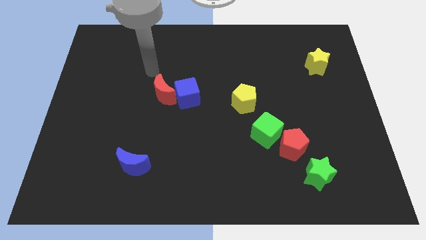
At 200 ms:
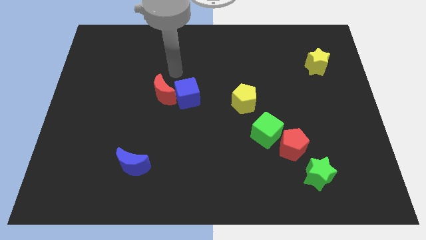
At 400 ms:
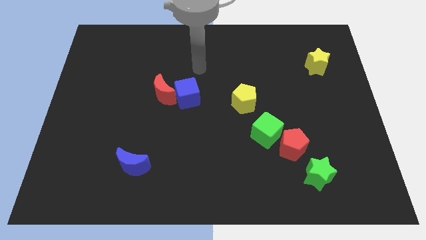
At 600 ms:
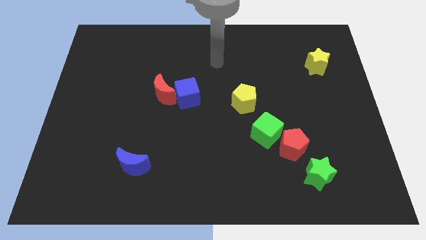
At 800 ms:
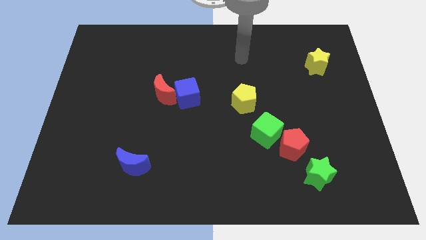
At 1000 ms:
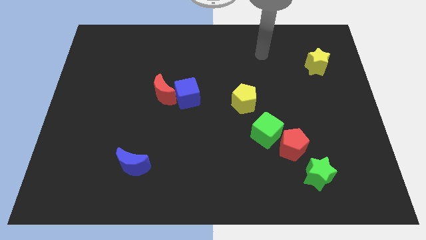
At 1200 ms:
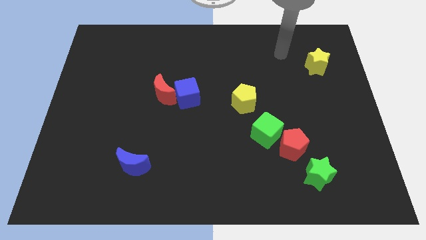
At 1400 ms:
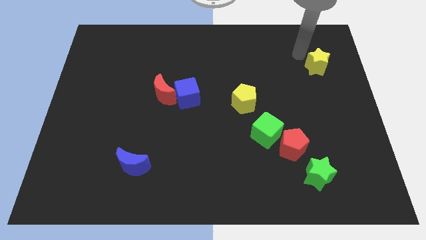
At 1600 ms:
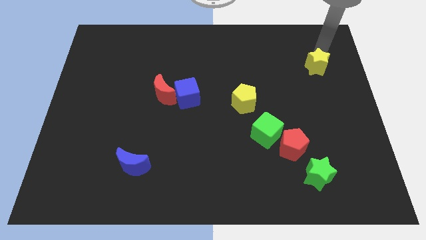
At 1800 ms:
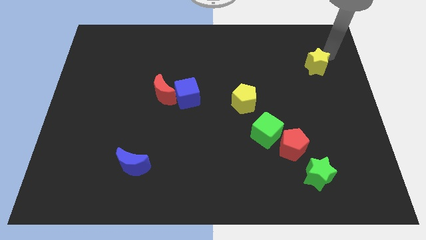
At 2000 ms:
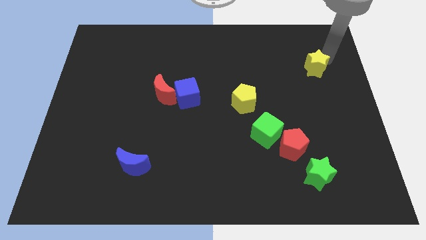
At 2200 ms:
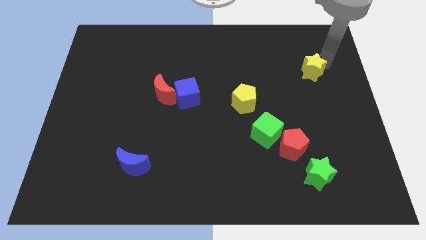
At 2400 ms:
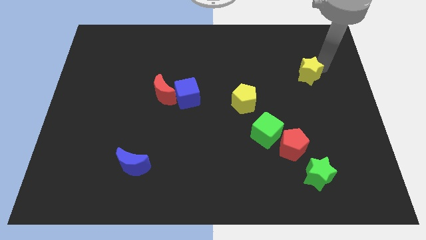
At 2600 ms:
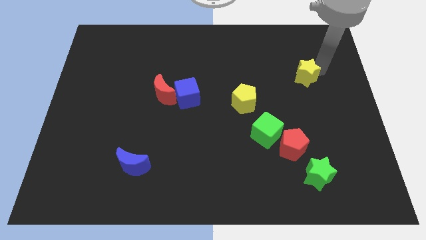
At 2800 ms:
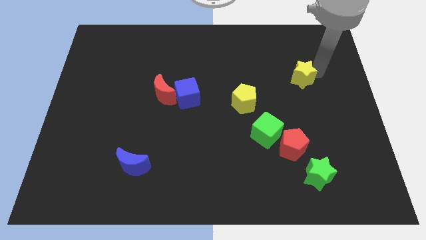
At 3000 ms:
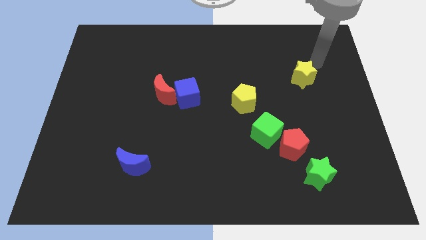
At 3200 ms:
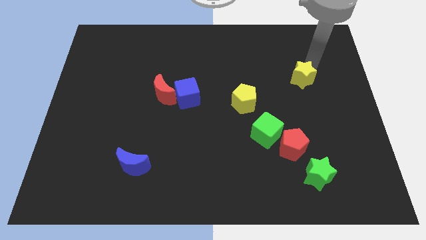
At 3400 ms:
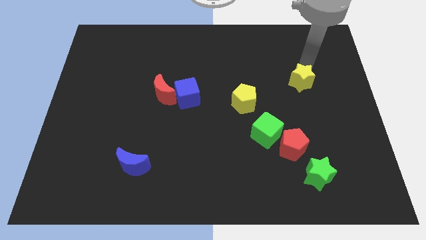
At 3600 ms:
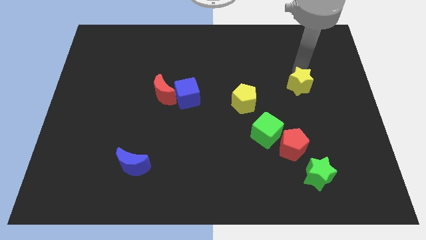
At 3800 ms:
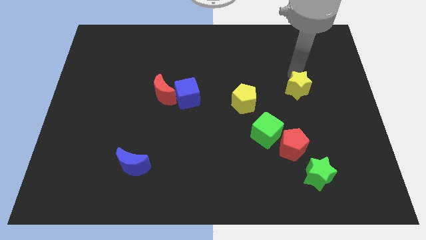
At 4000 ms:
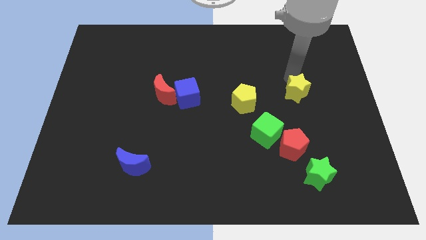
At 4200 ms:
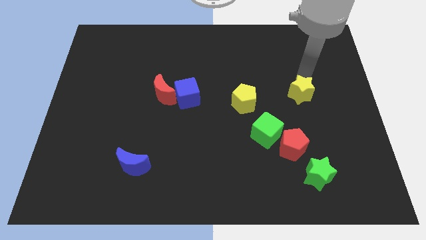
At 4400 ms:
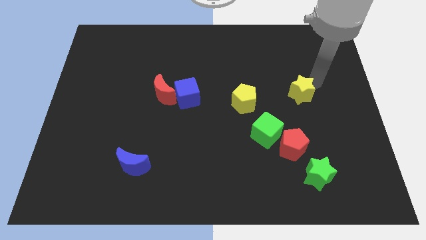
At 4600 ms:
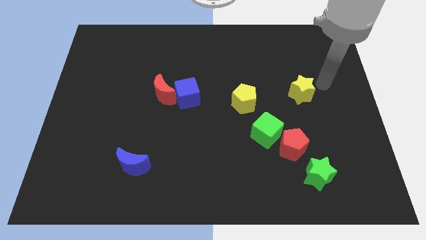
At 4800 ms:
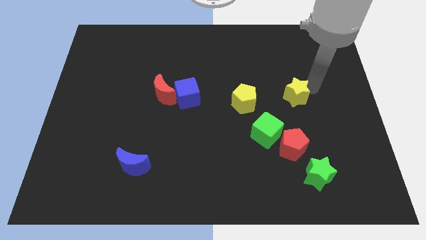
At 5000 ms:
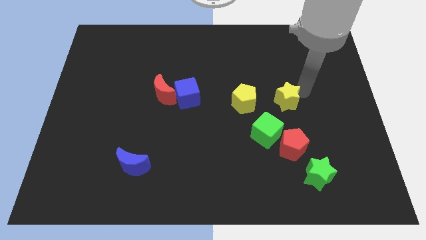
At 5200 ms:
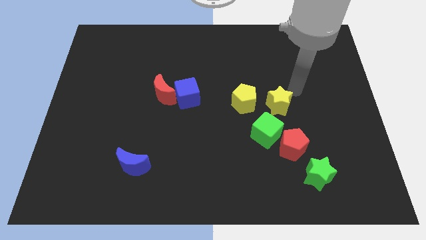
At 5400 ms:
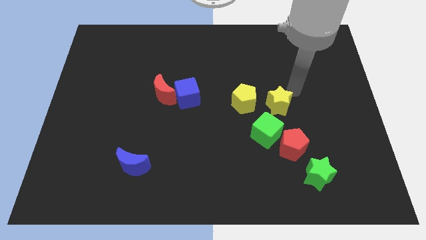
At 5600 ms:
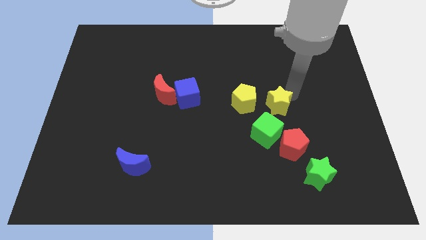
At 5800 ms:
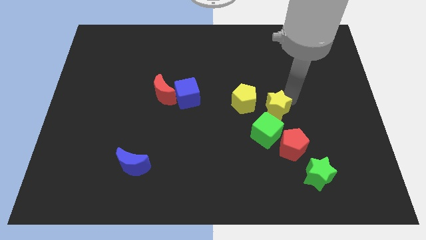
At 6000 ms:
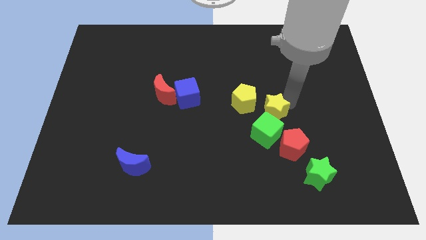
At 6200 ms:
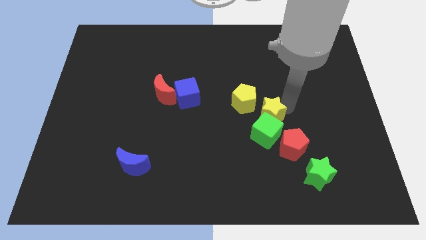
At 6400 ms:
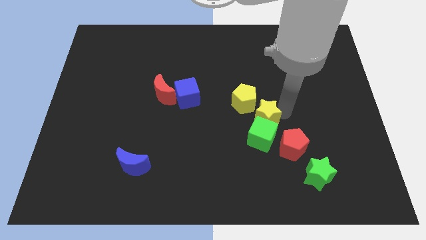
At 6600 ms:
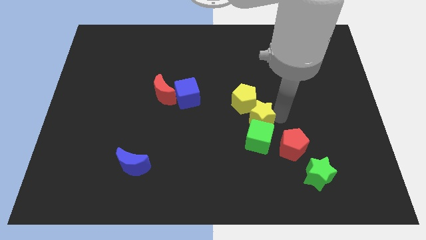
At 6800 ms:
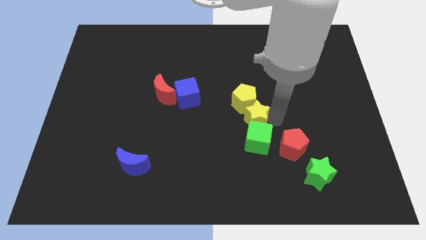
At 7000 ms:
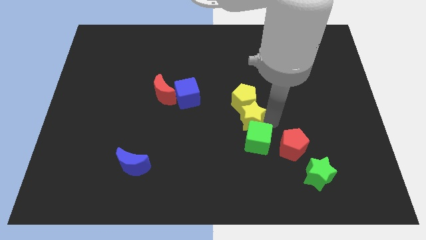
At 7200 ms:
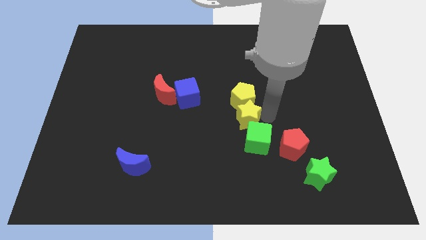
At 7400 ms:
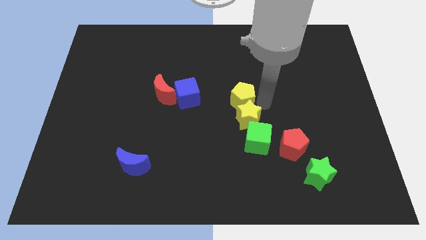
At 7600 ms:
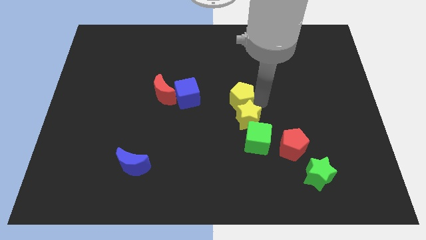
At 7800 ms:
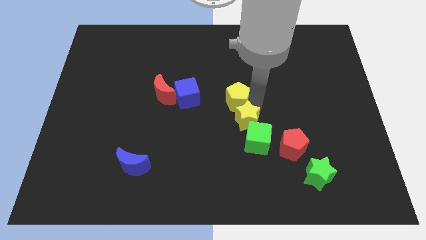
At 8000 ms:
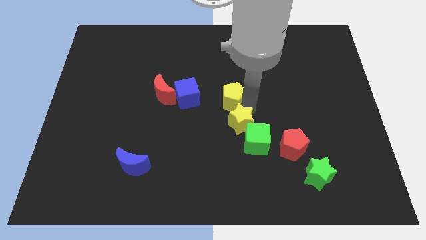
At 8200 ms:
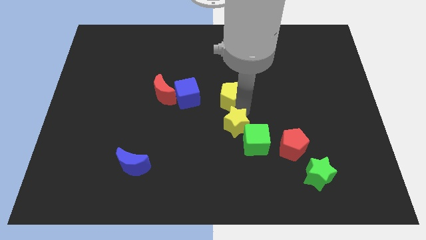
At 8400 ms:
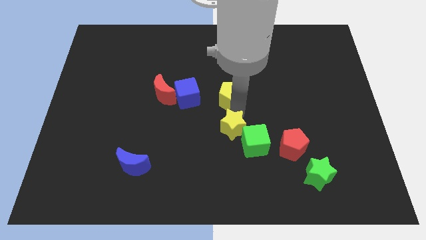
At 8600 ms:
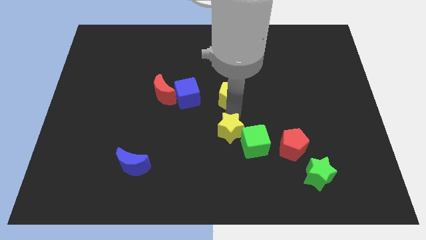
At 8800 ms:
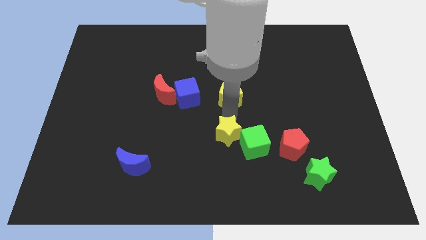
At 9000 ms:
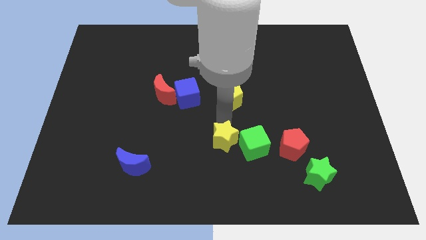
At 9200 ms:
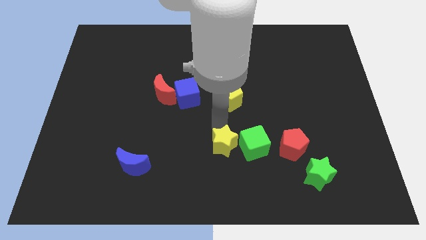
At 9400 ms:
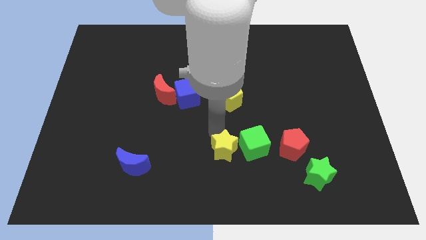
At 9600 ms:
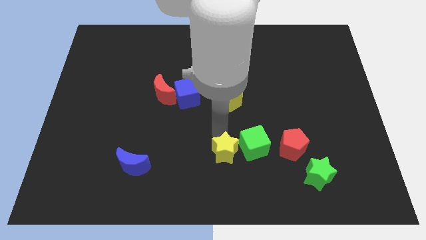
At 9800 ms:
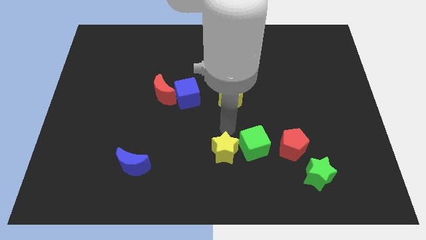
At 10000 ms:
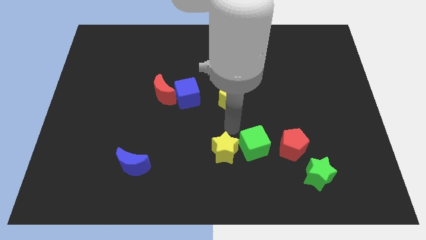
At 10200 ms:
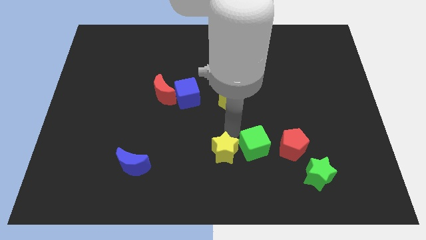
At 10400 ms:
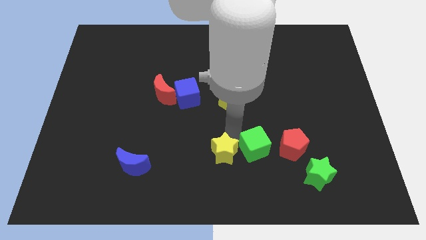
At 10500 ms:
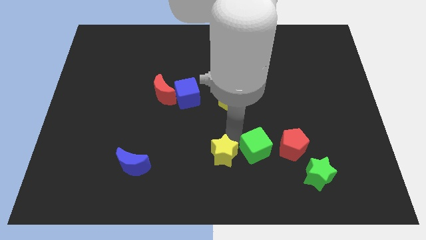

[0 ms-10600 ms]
put the yellow star to the bottom side

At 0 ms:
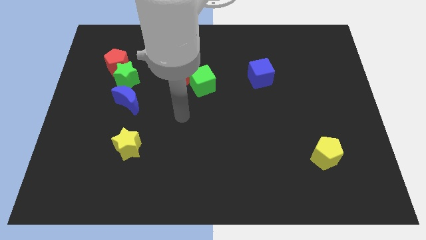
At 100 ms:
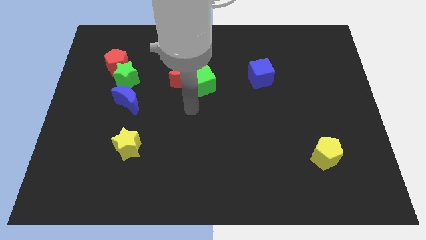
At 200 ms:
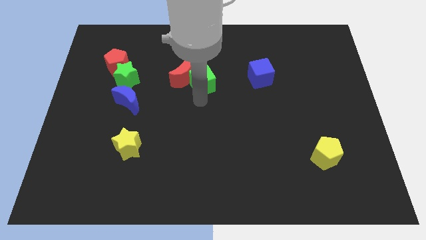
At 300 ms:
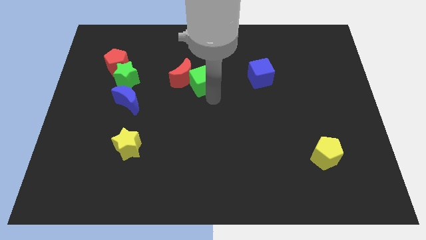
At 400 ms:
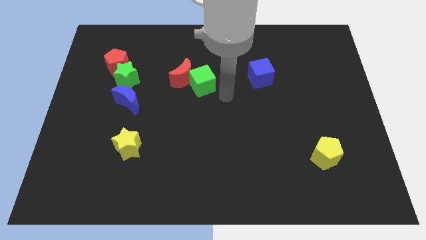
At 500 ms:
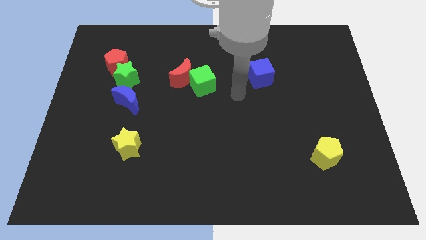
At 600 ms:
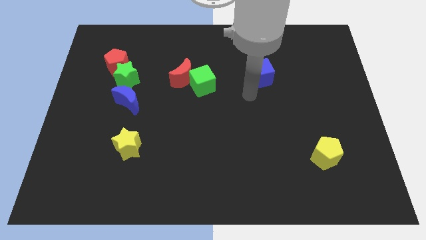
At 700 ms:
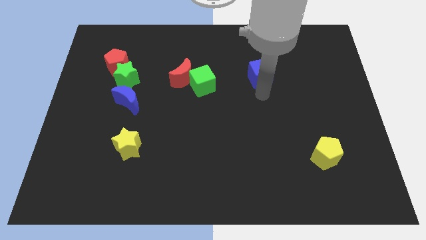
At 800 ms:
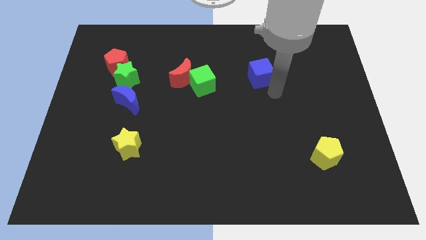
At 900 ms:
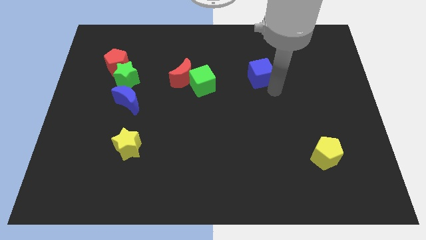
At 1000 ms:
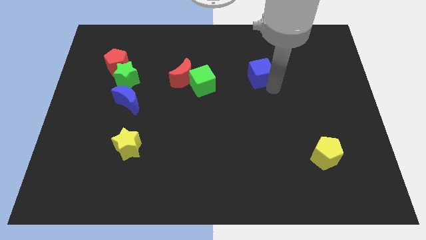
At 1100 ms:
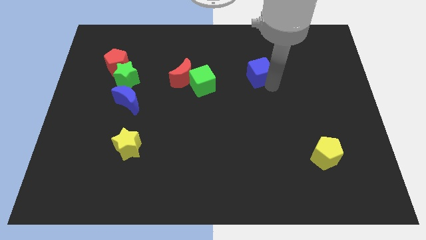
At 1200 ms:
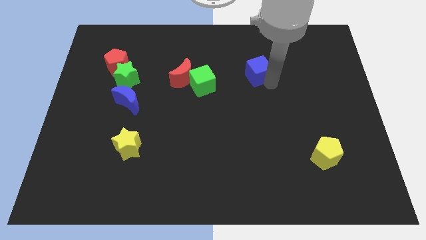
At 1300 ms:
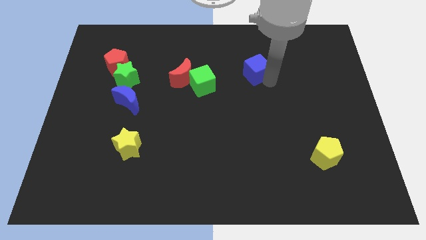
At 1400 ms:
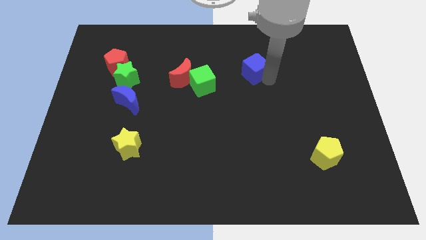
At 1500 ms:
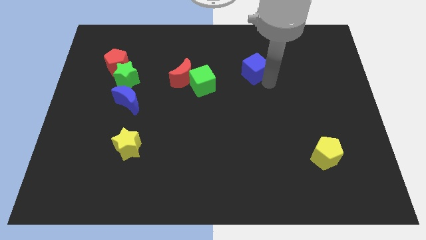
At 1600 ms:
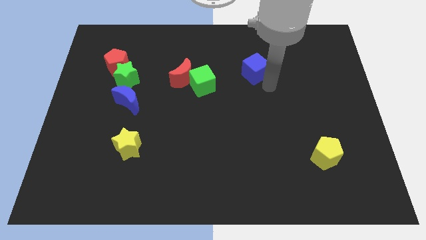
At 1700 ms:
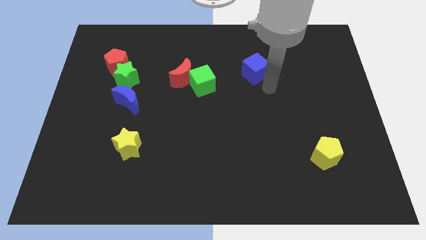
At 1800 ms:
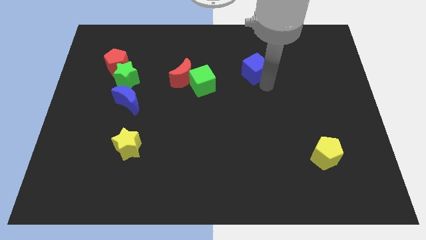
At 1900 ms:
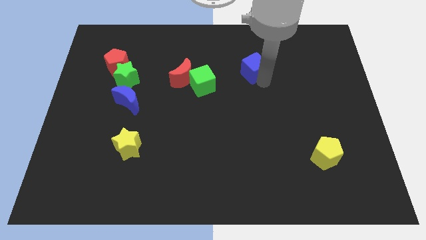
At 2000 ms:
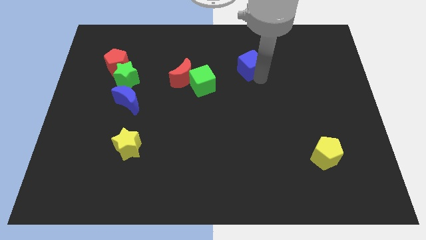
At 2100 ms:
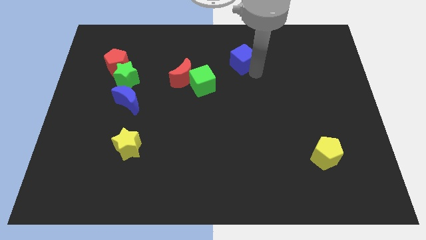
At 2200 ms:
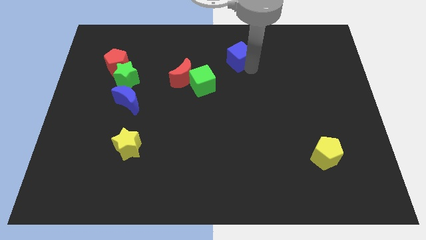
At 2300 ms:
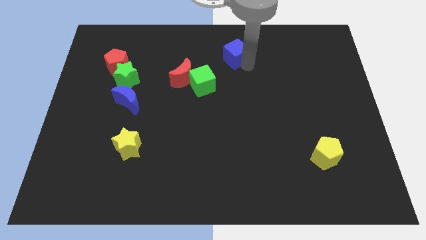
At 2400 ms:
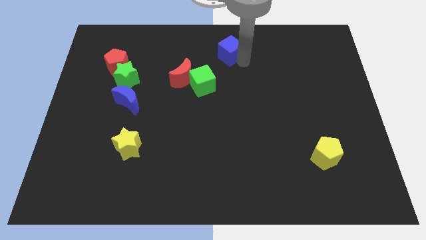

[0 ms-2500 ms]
move the blue cube to the top
